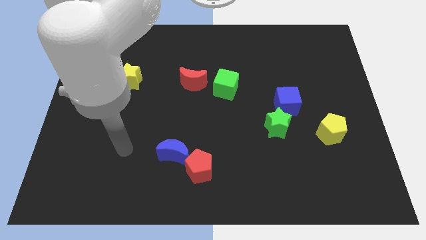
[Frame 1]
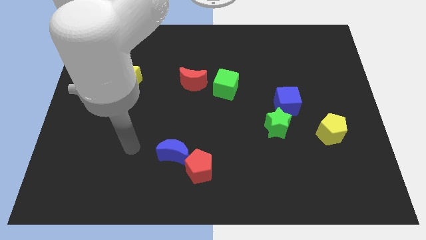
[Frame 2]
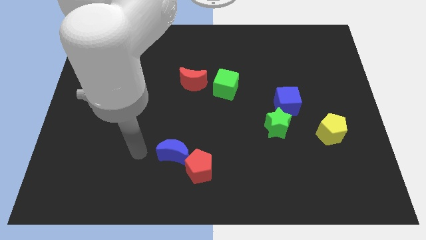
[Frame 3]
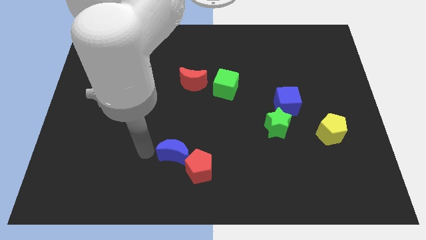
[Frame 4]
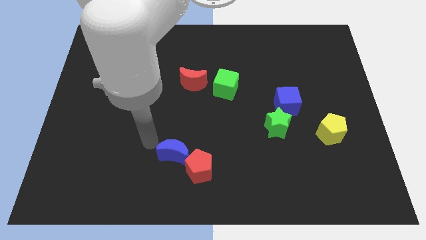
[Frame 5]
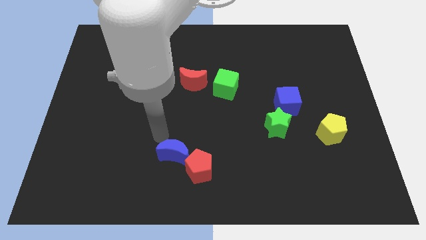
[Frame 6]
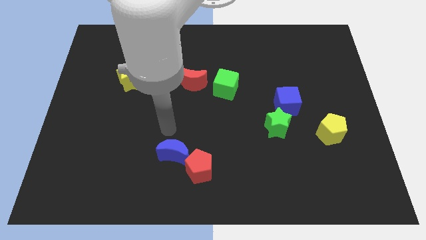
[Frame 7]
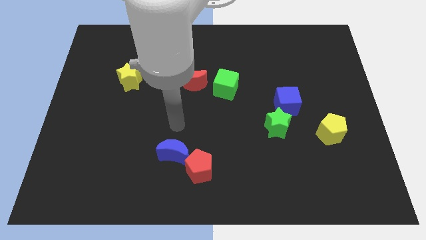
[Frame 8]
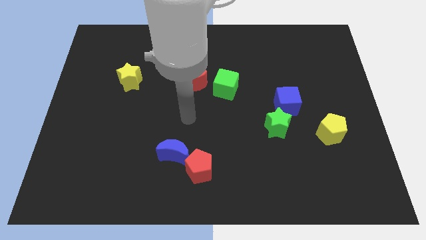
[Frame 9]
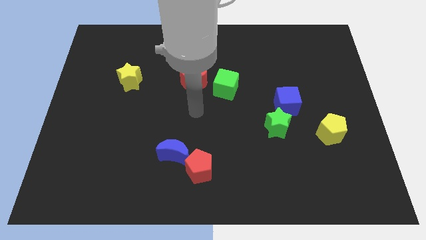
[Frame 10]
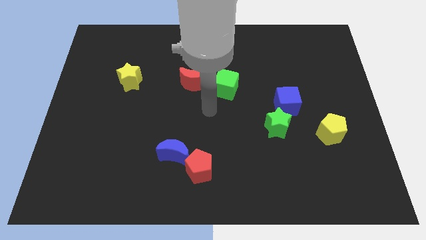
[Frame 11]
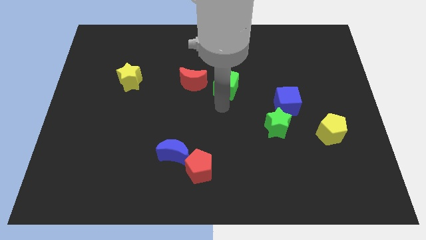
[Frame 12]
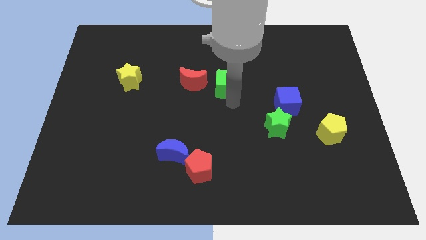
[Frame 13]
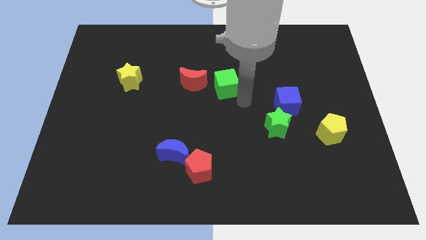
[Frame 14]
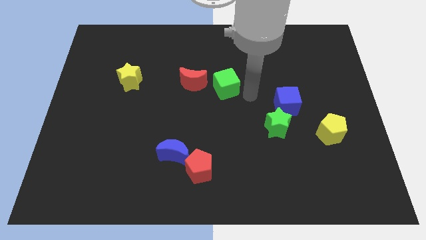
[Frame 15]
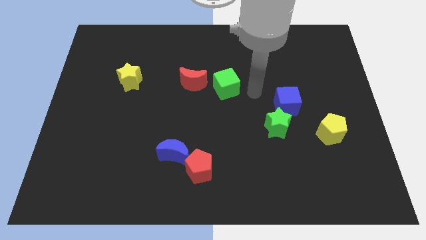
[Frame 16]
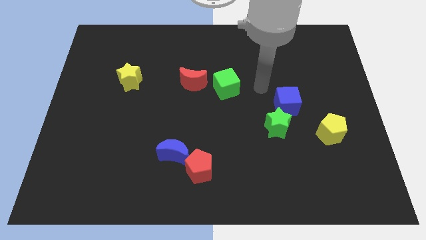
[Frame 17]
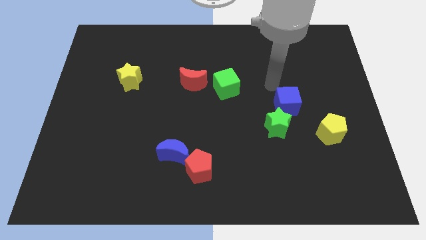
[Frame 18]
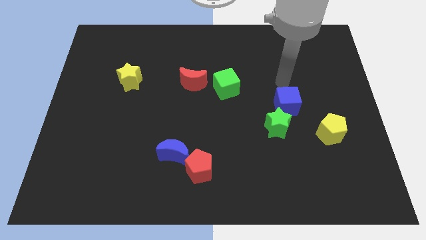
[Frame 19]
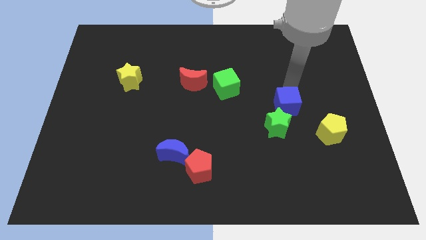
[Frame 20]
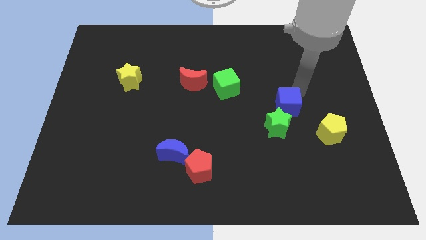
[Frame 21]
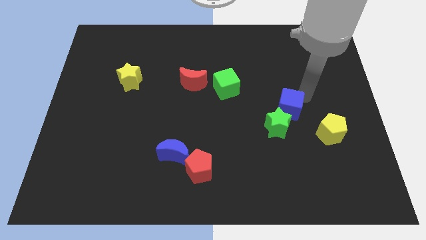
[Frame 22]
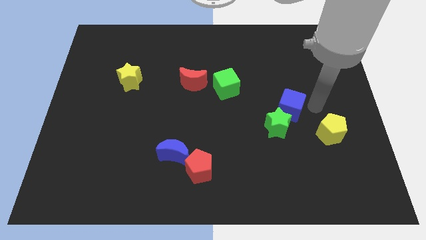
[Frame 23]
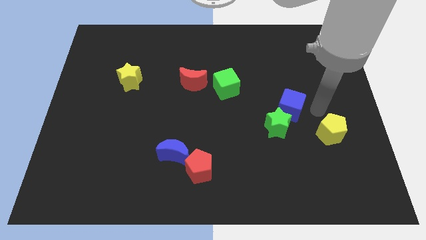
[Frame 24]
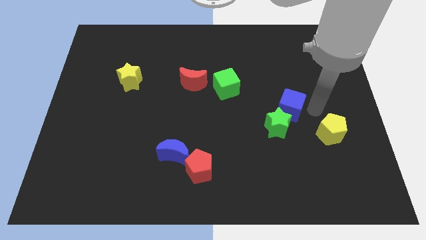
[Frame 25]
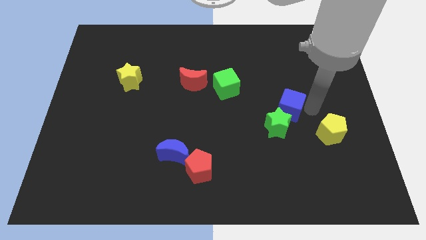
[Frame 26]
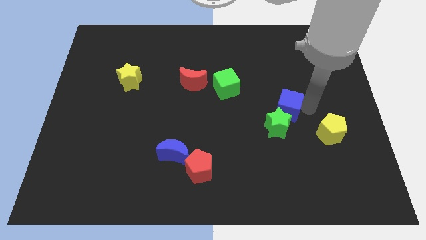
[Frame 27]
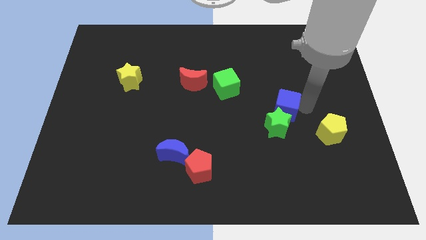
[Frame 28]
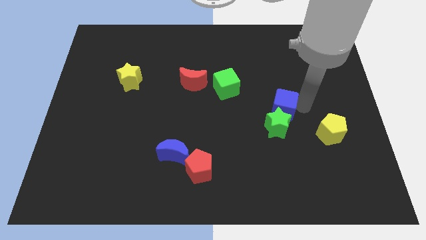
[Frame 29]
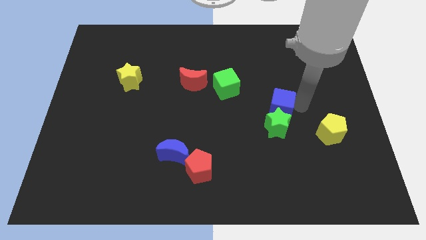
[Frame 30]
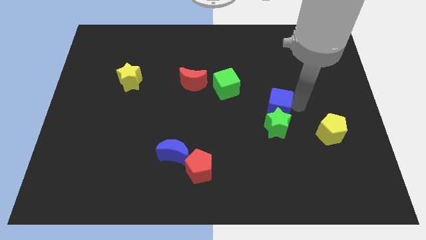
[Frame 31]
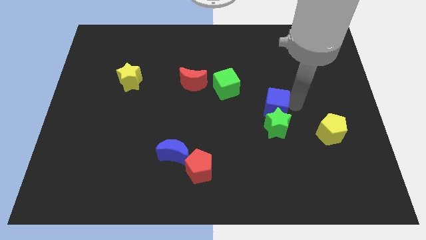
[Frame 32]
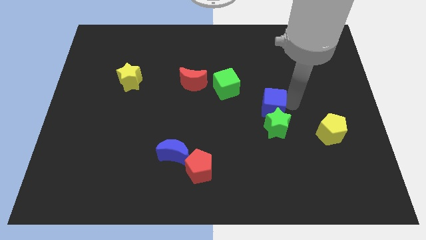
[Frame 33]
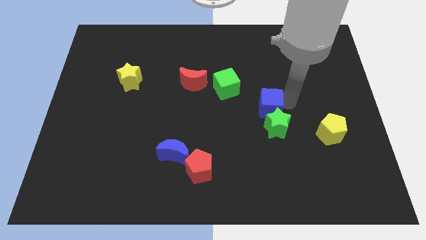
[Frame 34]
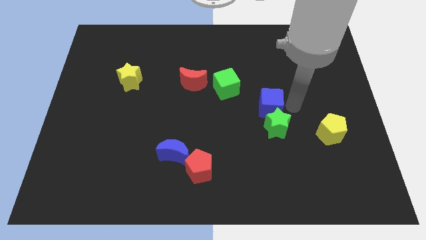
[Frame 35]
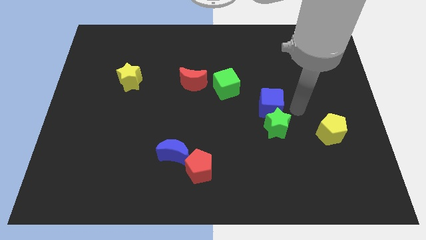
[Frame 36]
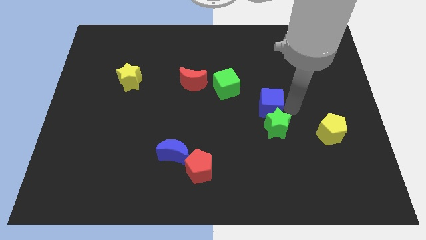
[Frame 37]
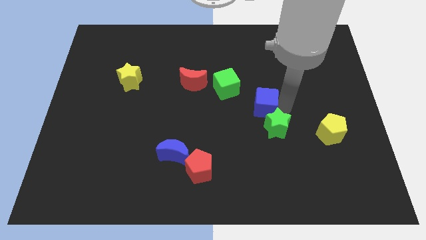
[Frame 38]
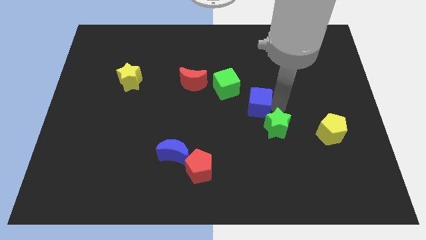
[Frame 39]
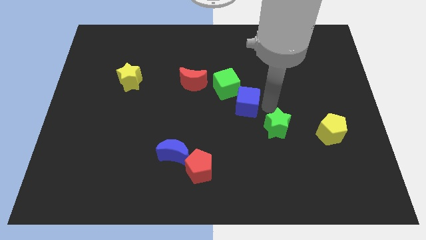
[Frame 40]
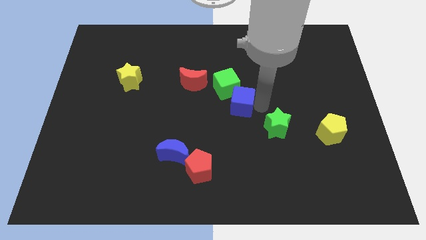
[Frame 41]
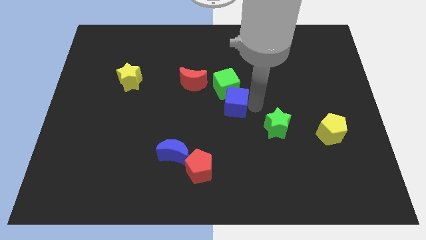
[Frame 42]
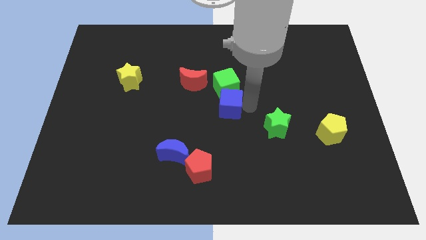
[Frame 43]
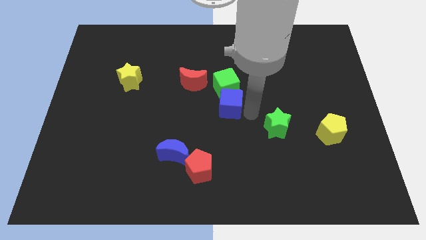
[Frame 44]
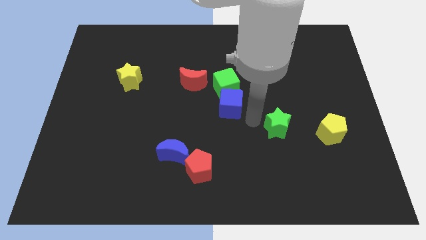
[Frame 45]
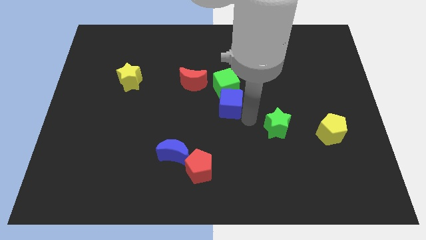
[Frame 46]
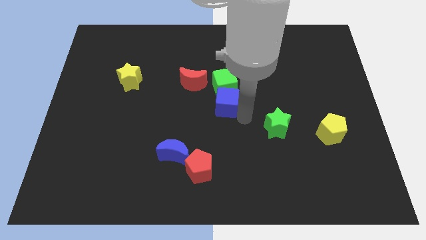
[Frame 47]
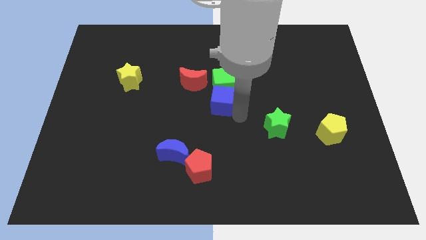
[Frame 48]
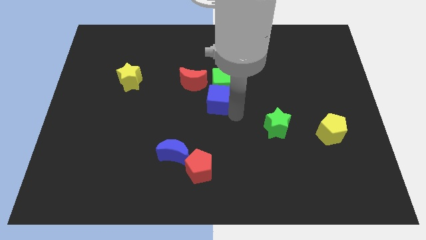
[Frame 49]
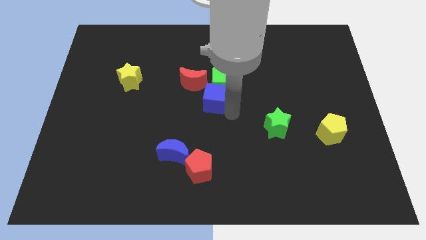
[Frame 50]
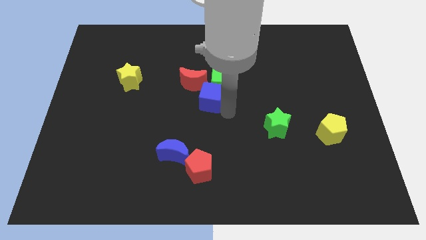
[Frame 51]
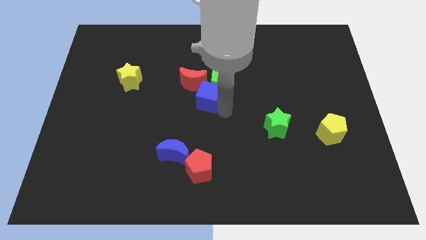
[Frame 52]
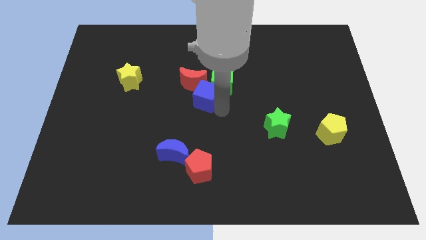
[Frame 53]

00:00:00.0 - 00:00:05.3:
slide the blue cube close to the red moon

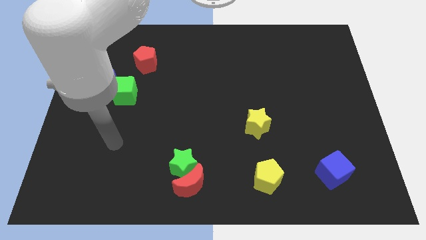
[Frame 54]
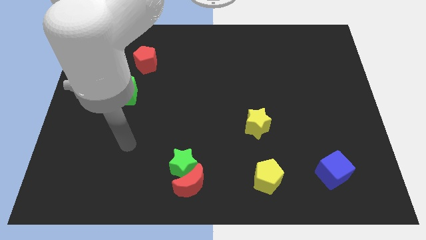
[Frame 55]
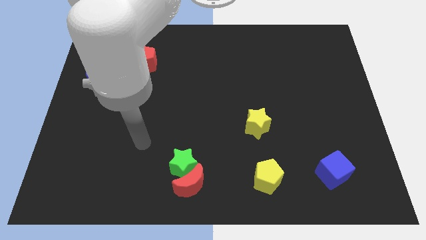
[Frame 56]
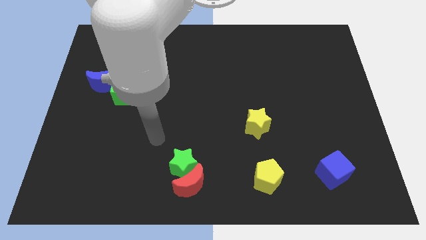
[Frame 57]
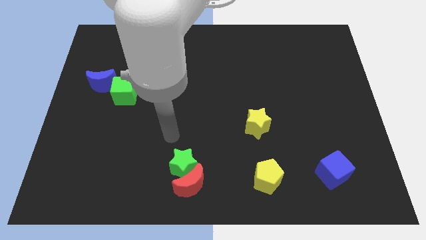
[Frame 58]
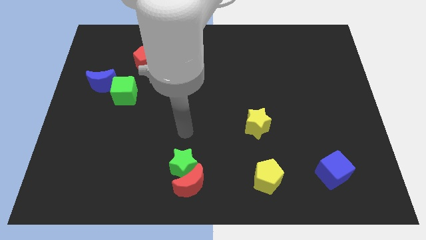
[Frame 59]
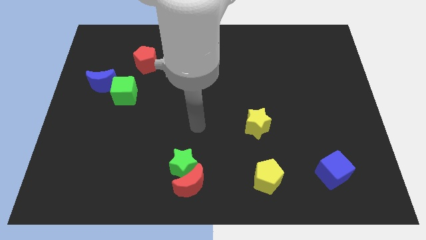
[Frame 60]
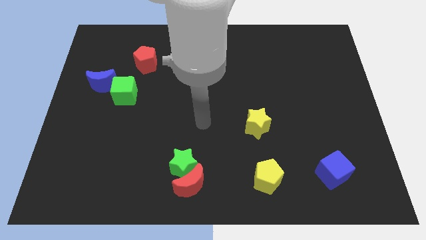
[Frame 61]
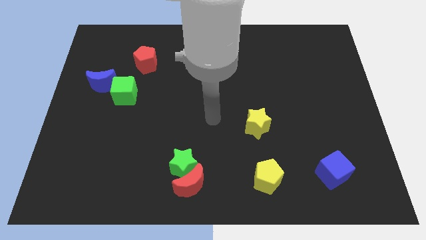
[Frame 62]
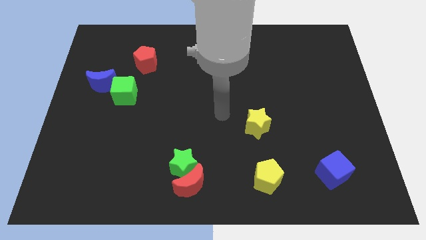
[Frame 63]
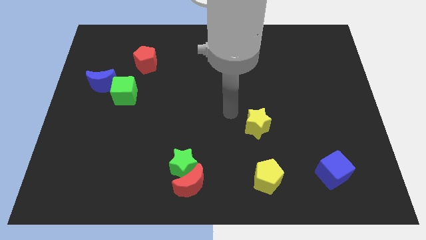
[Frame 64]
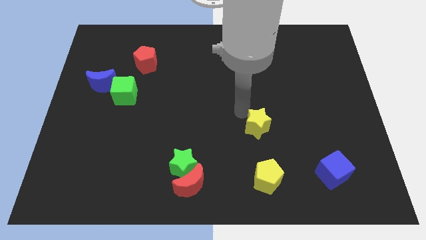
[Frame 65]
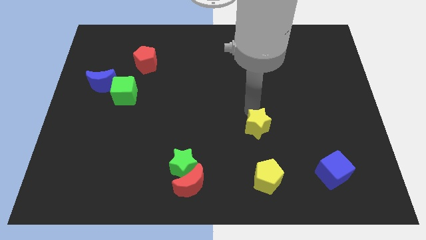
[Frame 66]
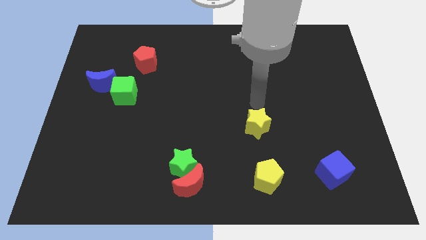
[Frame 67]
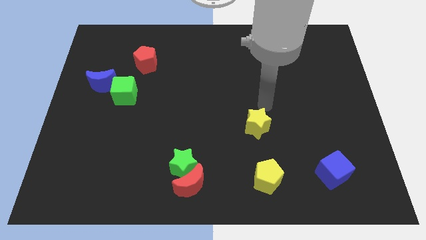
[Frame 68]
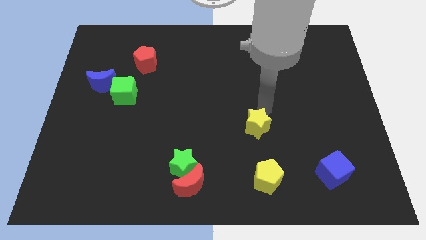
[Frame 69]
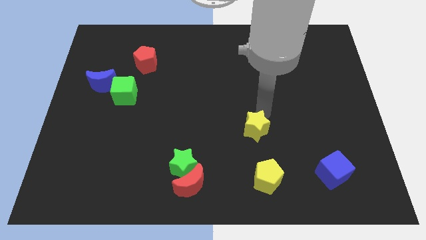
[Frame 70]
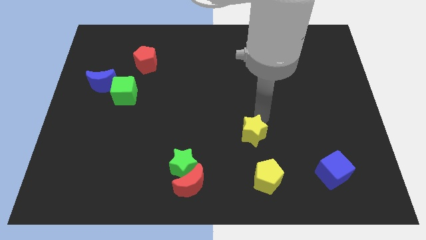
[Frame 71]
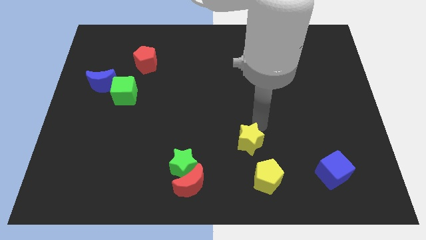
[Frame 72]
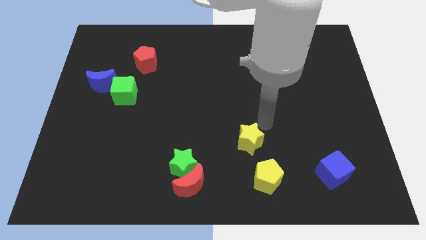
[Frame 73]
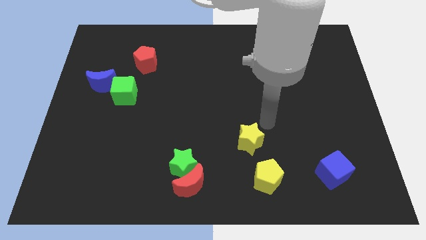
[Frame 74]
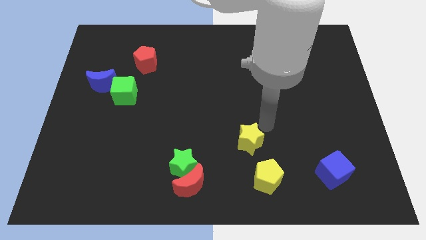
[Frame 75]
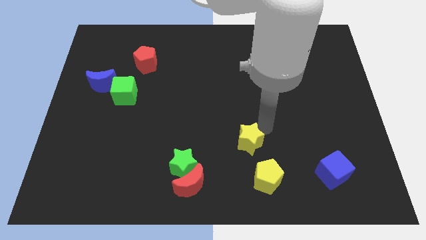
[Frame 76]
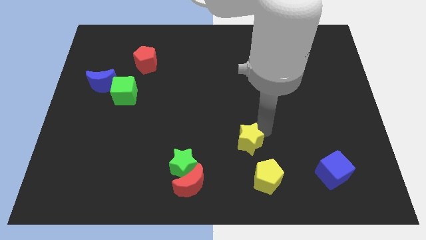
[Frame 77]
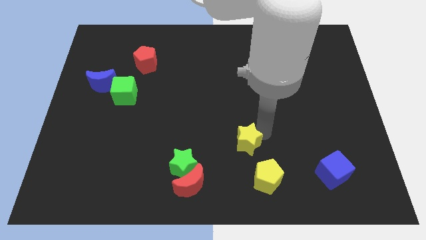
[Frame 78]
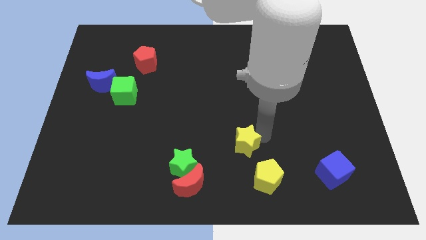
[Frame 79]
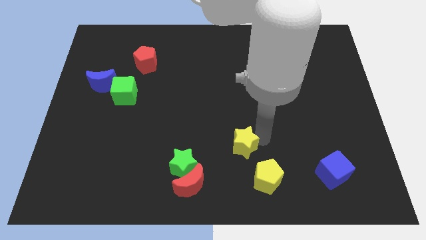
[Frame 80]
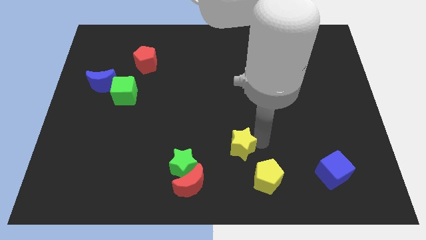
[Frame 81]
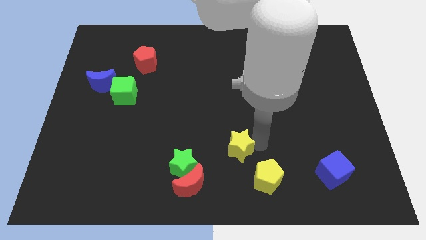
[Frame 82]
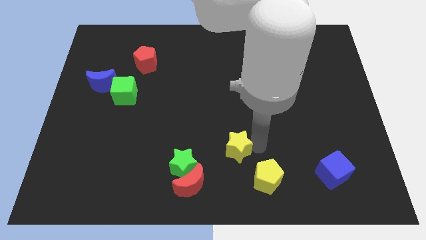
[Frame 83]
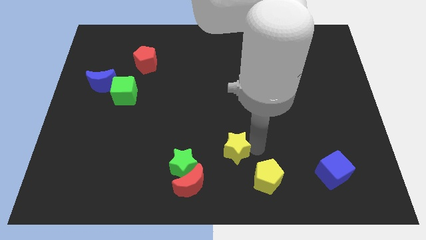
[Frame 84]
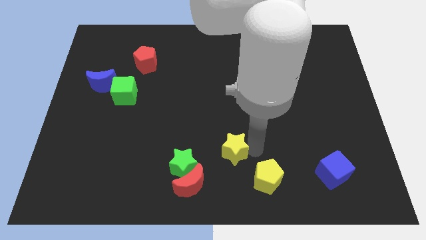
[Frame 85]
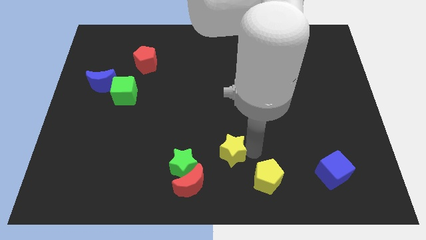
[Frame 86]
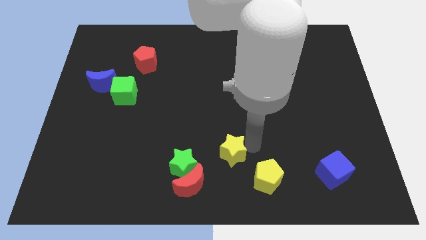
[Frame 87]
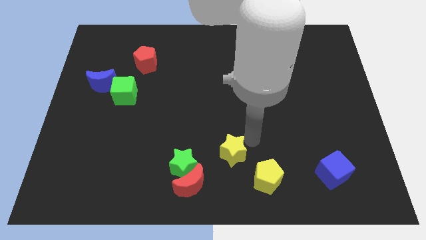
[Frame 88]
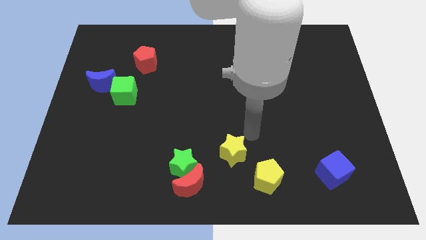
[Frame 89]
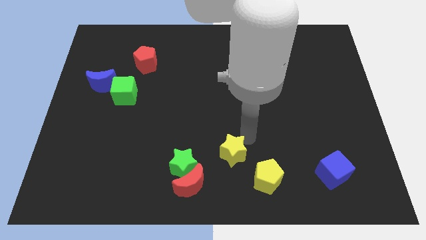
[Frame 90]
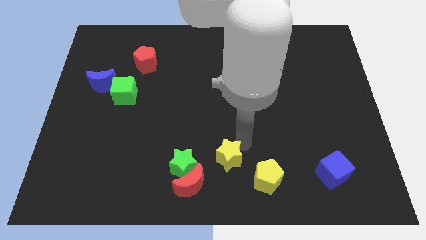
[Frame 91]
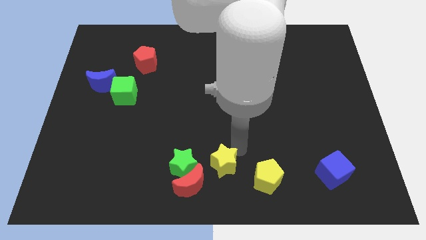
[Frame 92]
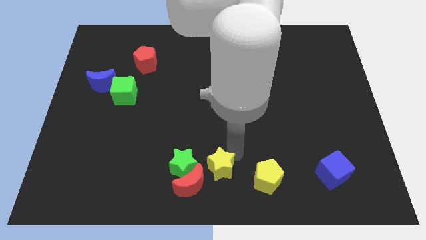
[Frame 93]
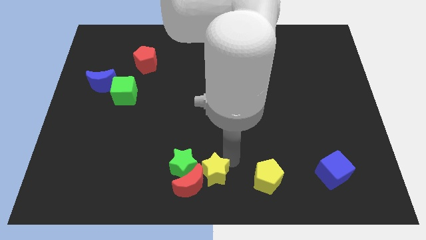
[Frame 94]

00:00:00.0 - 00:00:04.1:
slide the yellow star to the red moon
